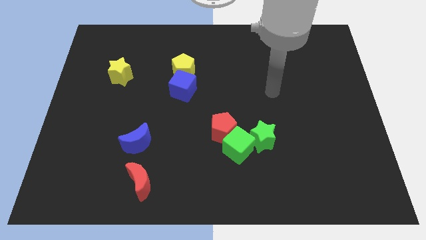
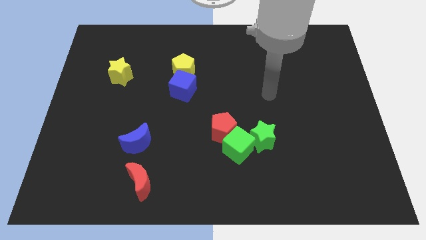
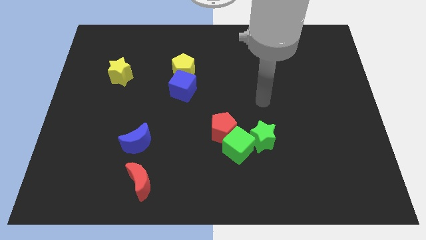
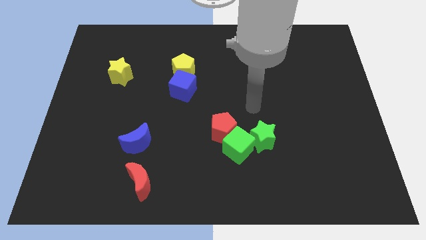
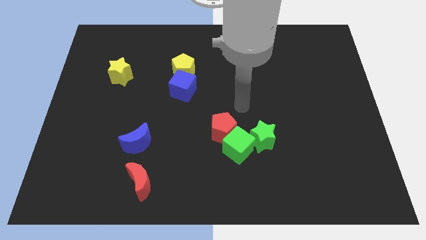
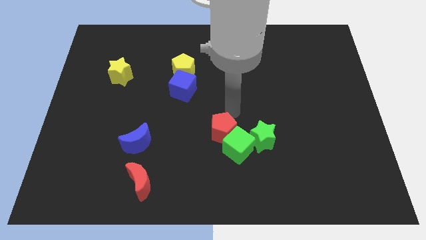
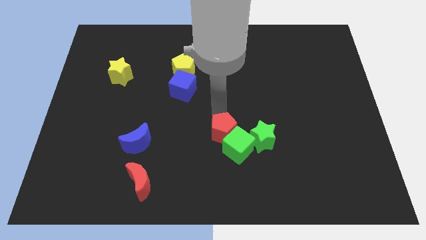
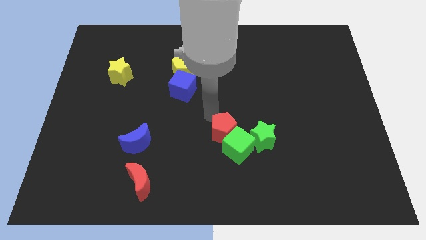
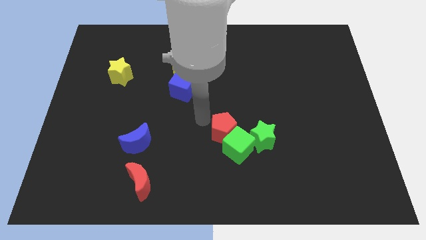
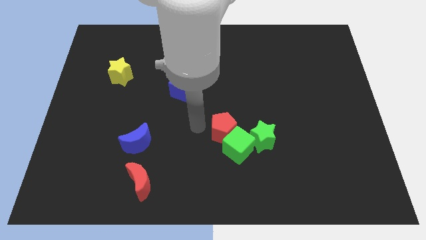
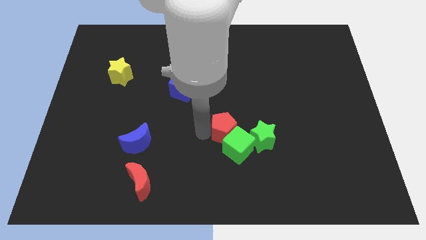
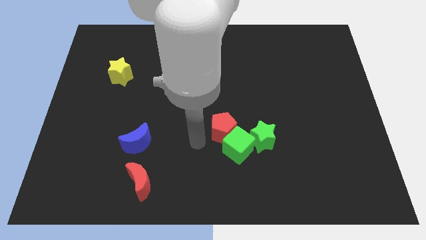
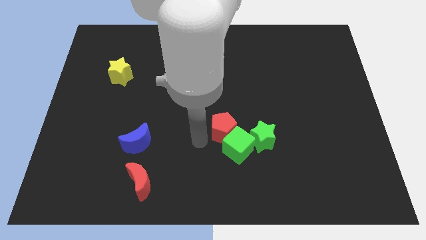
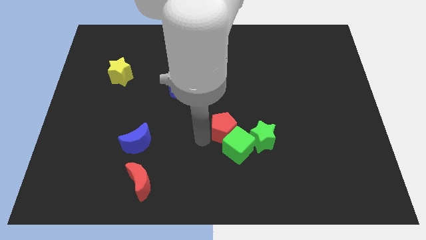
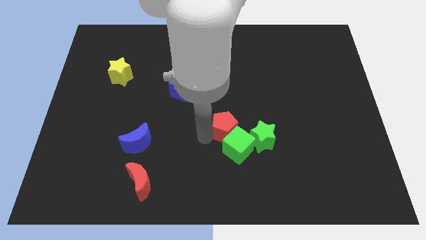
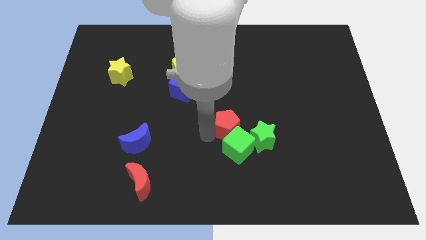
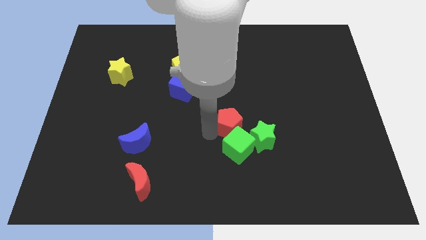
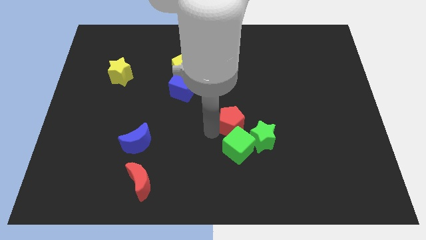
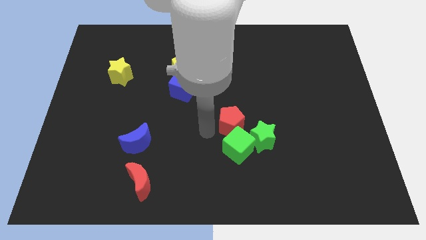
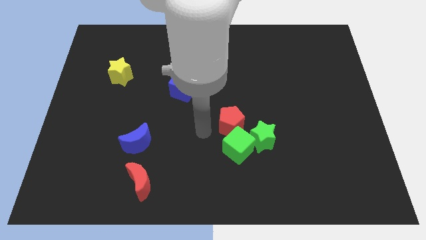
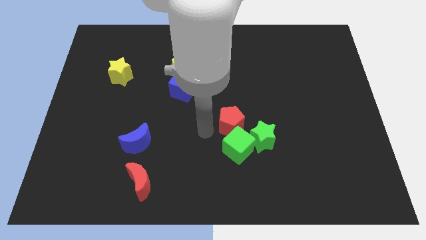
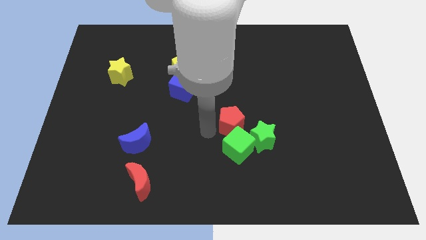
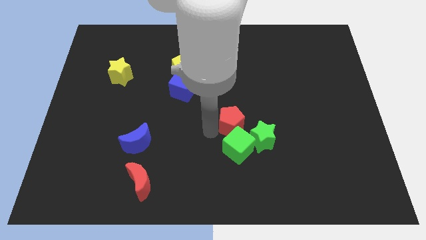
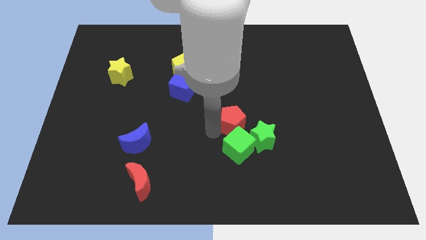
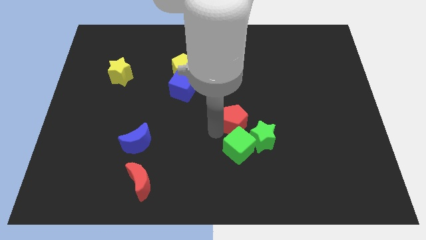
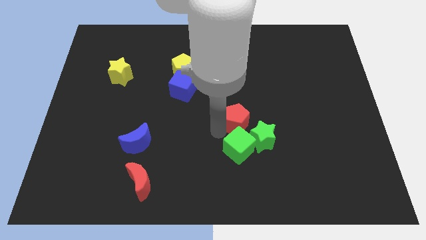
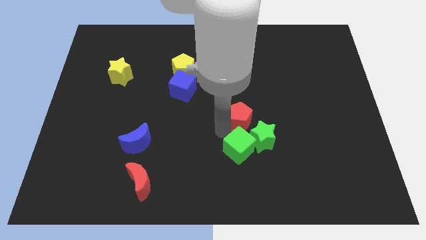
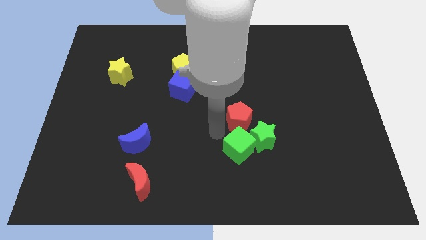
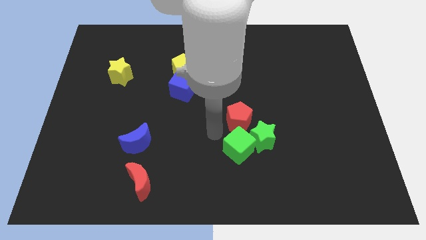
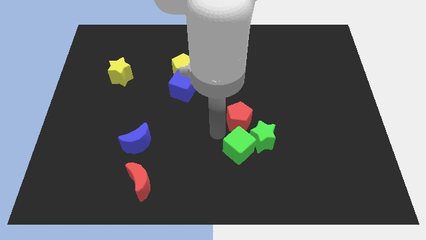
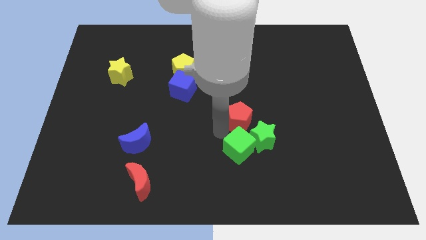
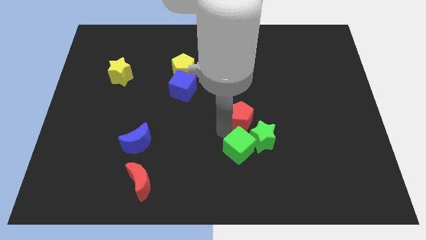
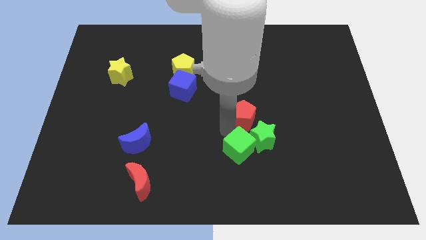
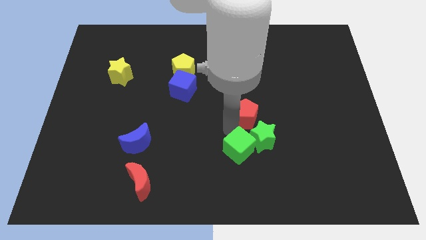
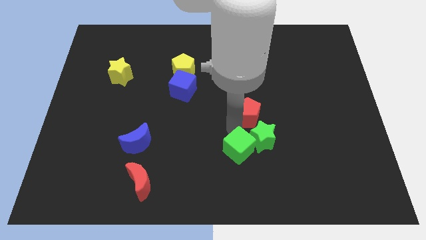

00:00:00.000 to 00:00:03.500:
push the red pentagon slightly upwards and then right

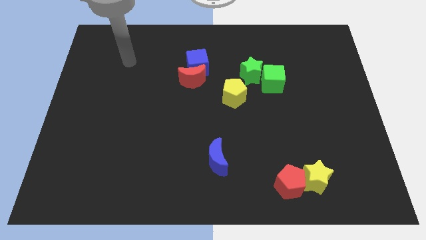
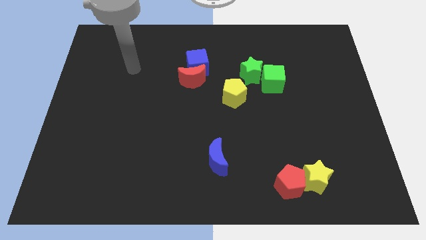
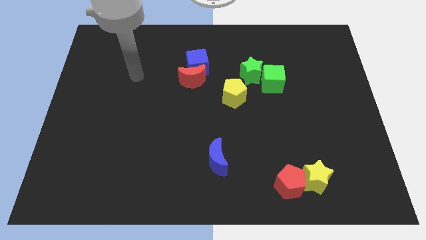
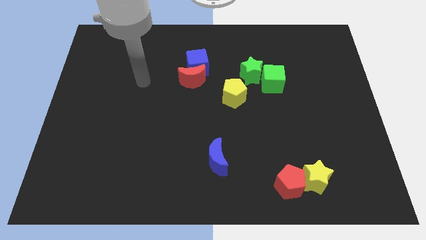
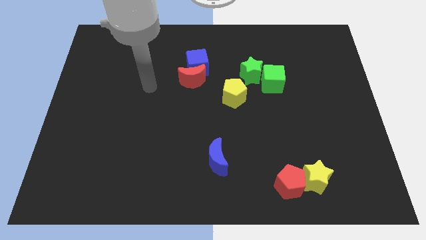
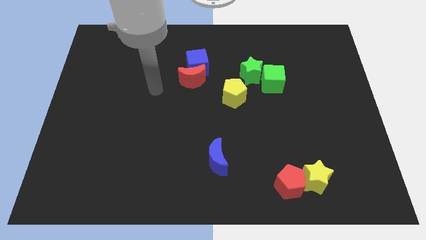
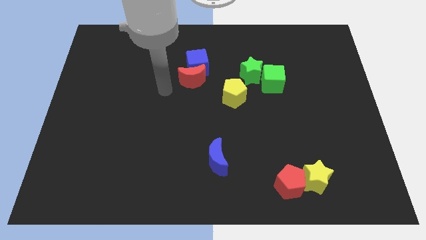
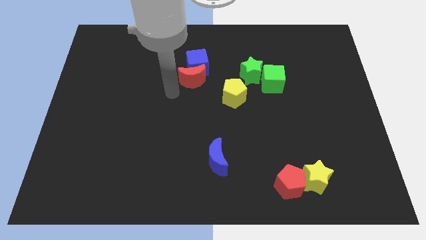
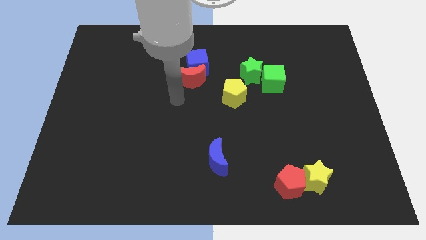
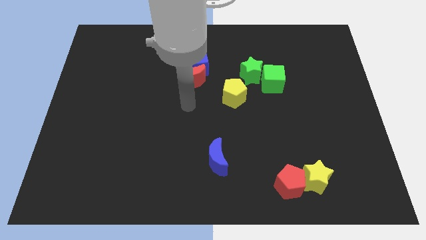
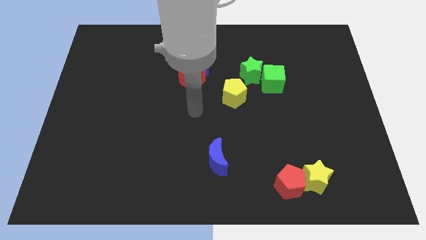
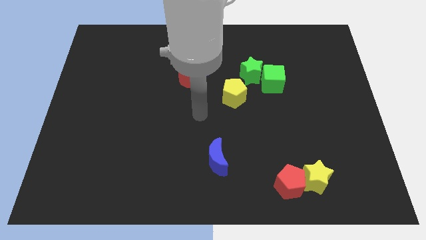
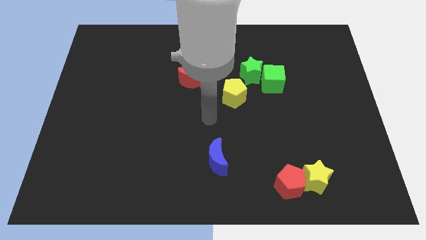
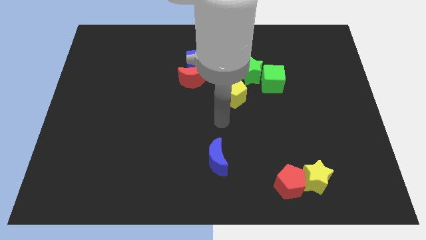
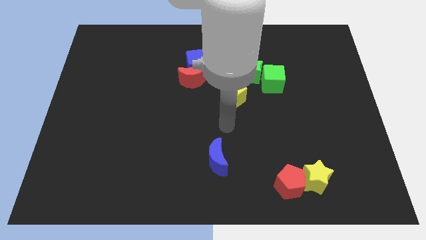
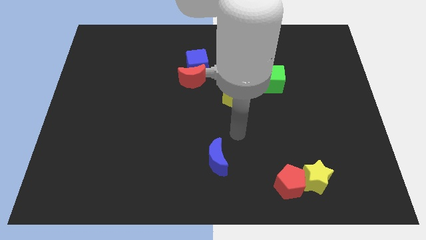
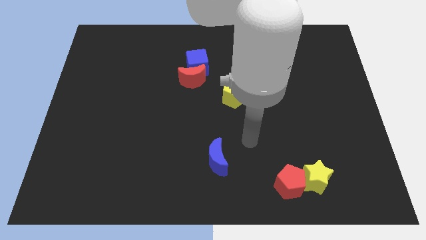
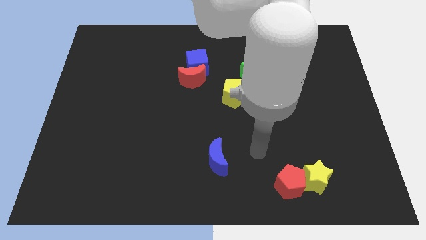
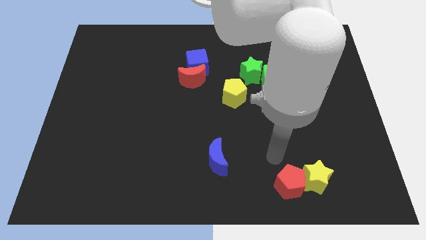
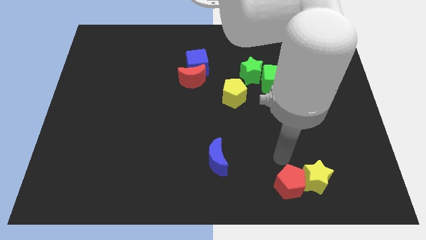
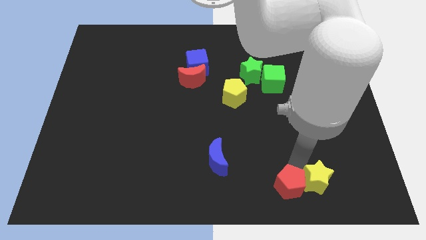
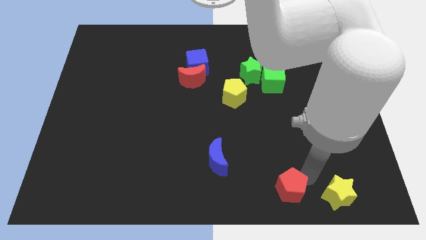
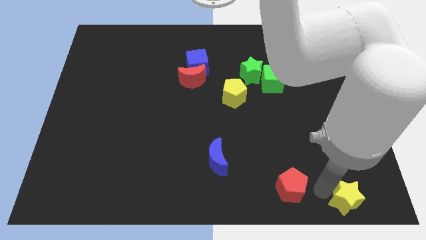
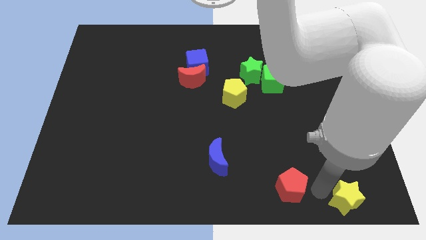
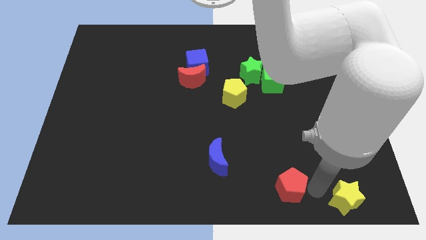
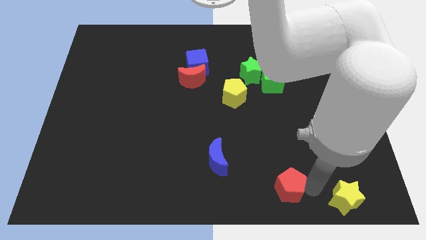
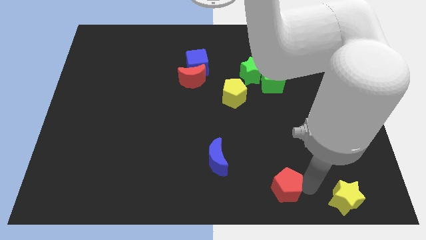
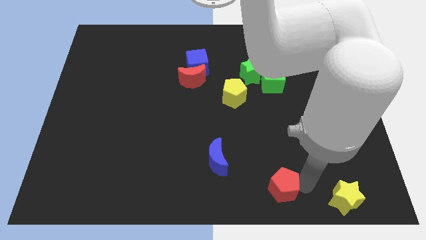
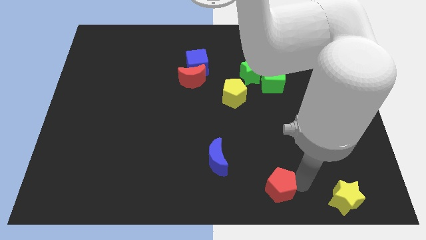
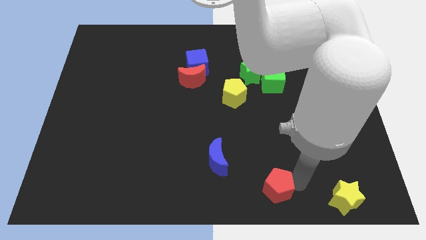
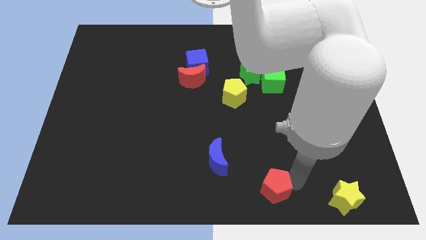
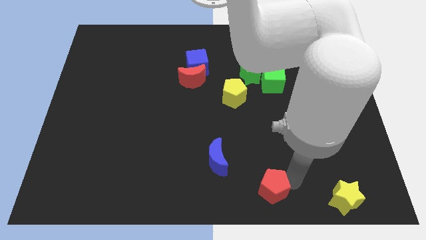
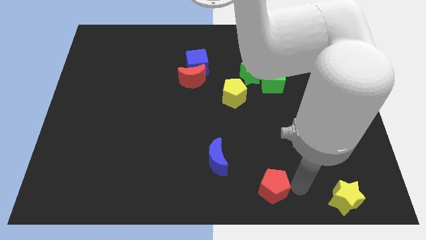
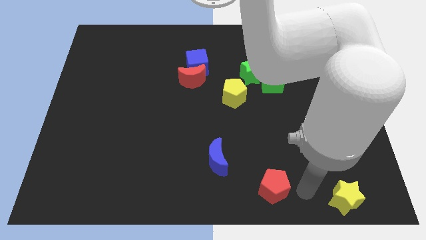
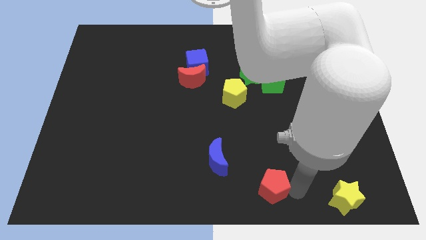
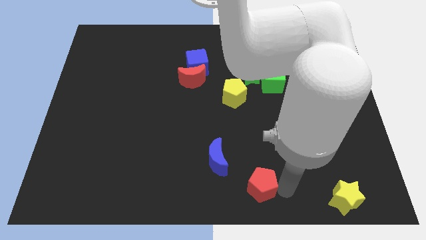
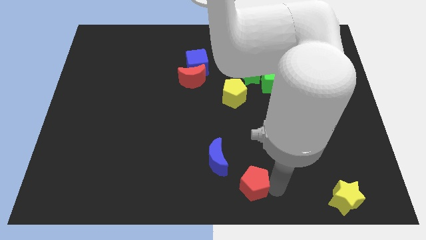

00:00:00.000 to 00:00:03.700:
push the red pentagon somewhat left

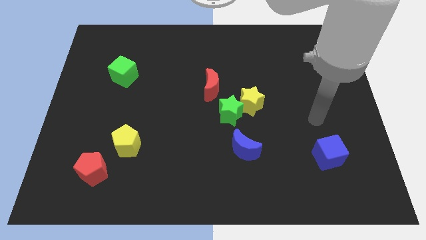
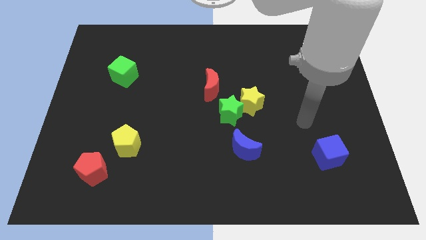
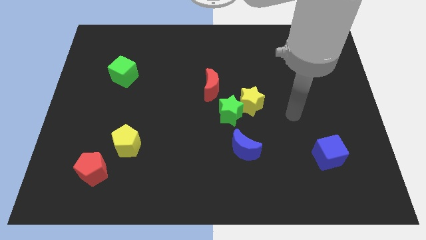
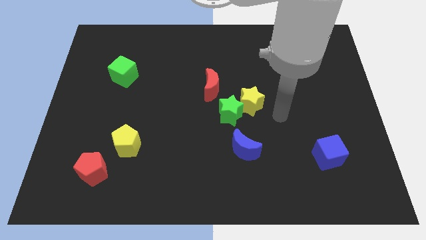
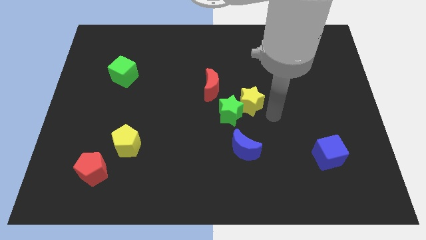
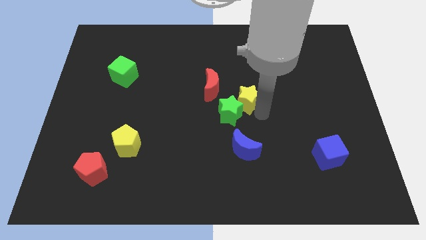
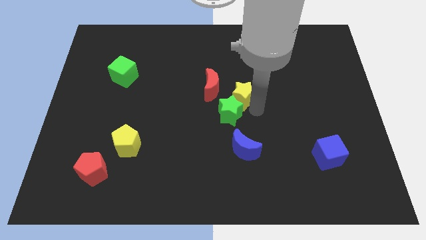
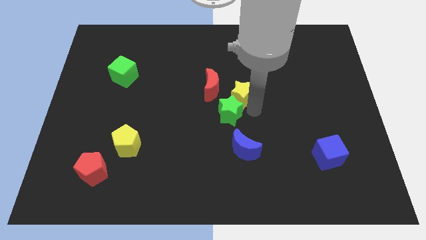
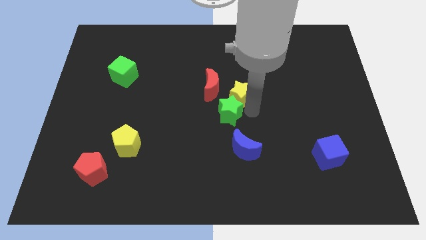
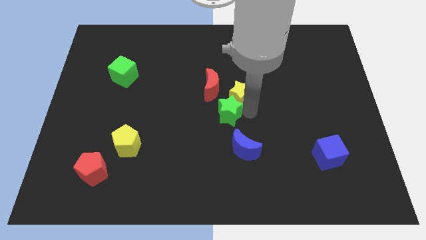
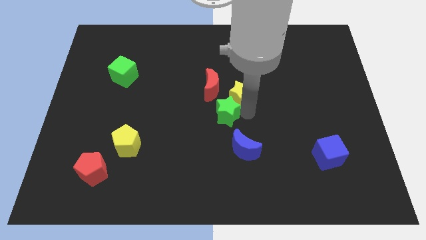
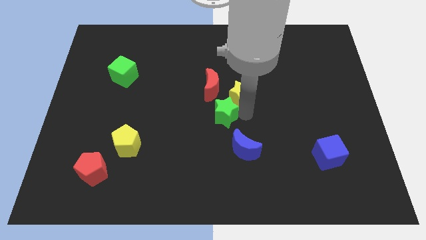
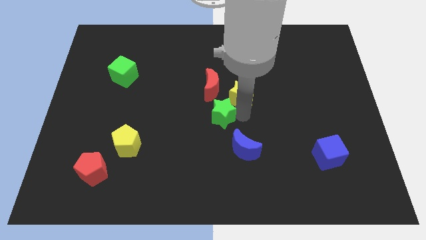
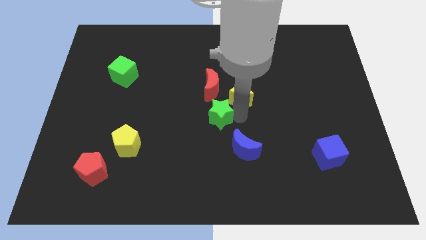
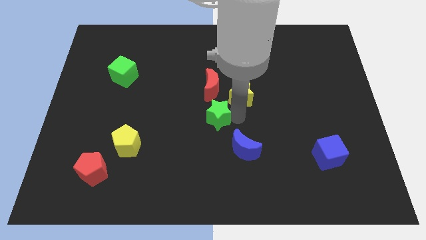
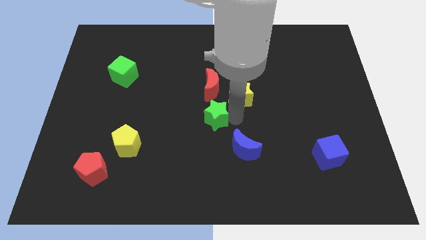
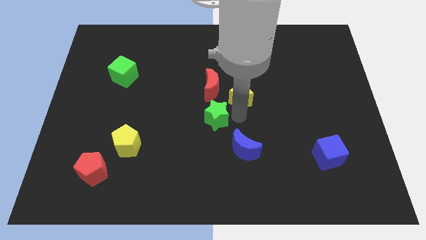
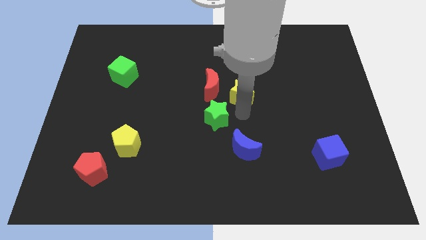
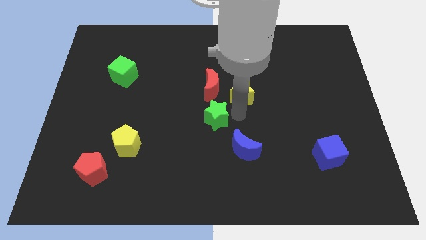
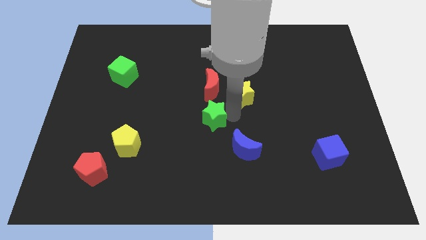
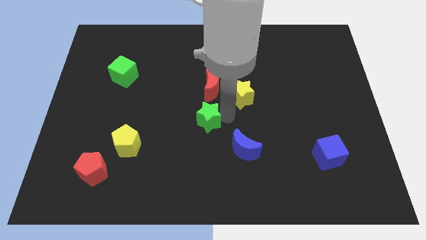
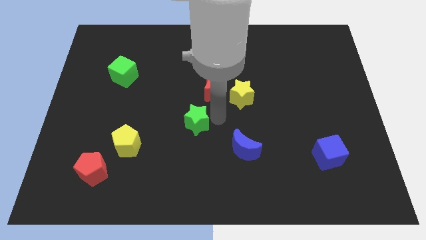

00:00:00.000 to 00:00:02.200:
slightly slide the green star left
